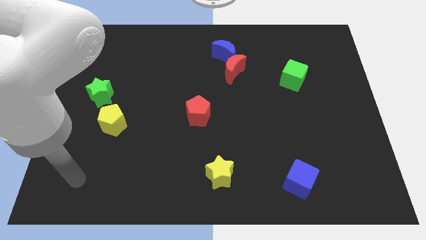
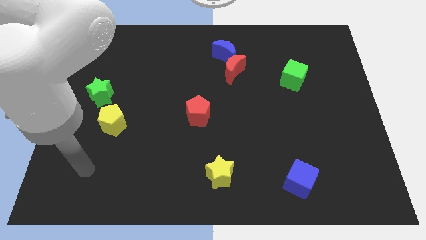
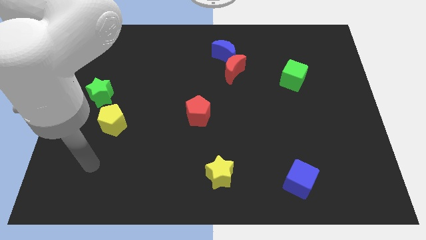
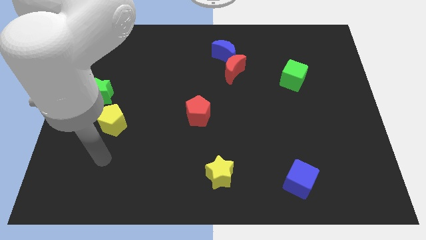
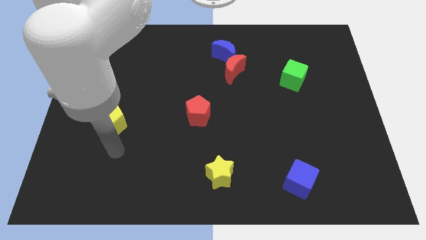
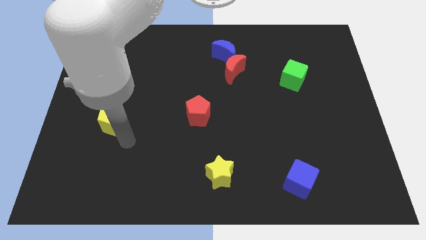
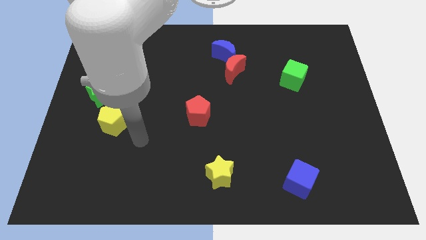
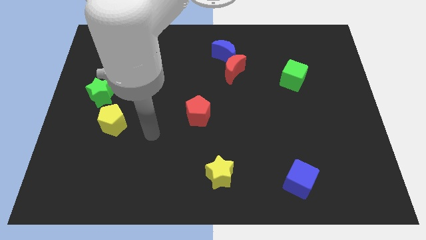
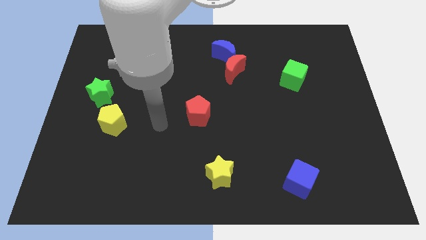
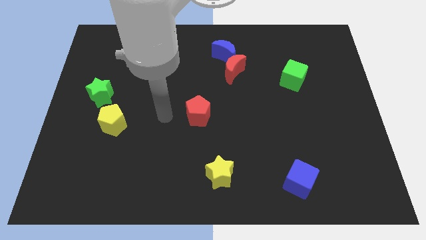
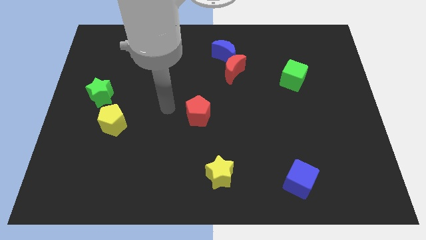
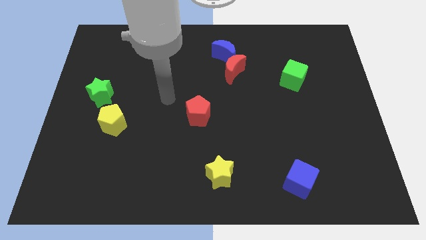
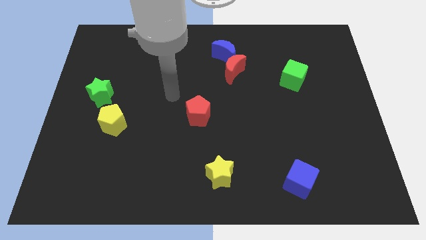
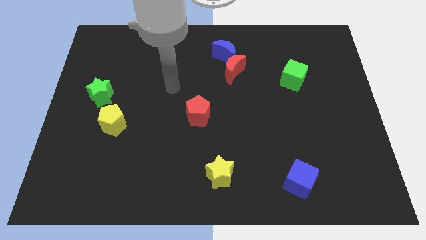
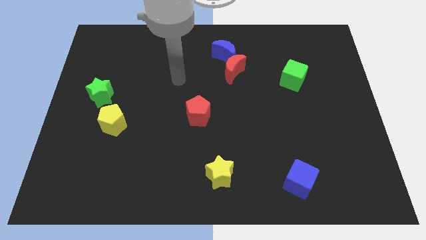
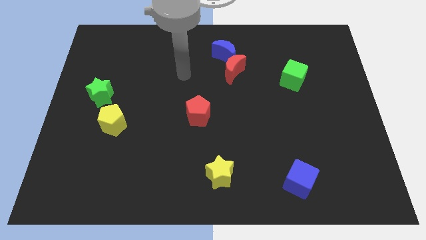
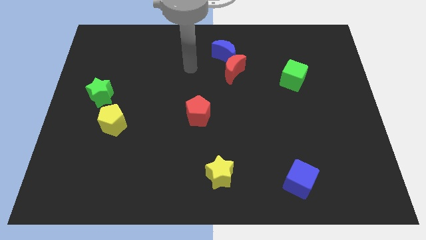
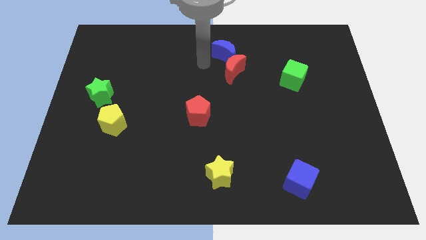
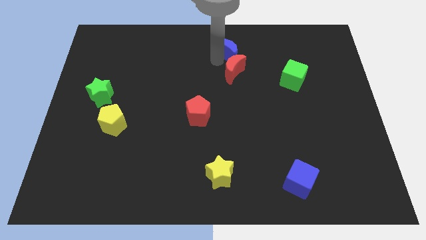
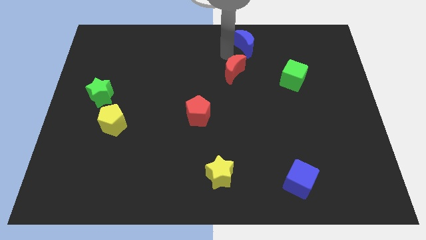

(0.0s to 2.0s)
move the red moon away from the blue moon

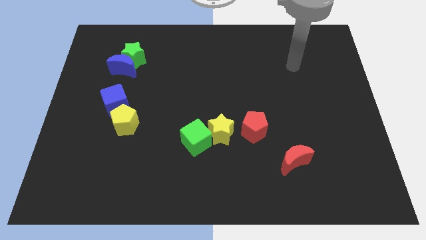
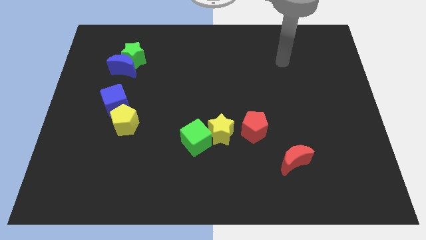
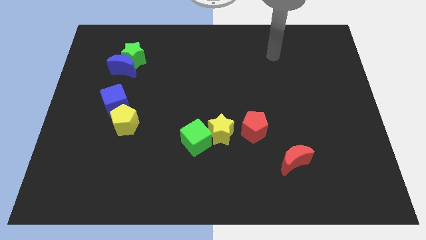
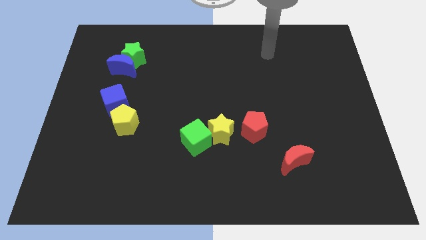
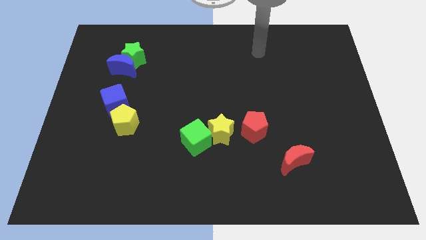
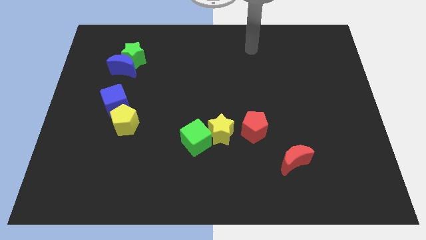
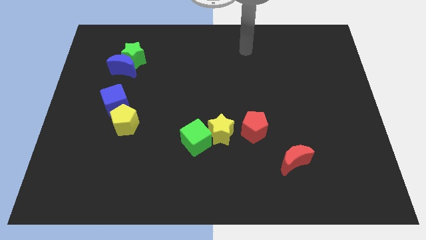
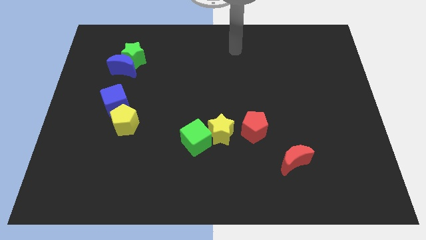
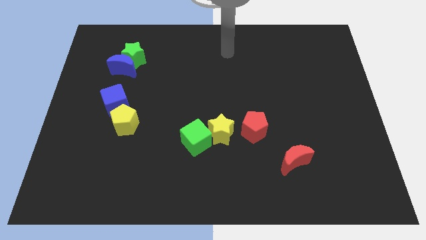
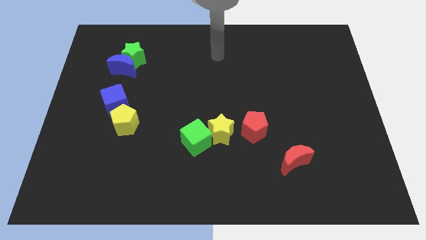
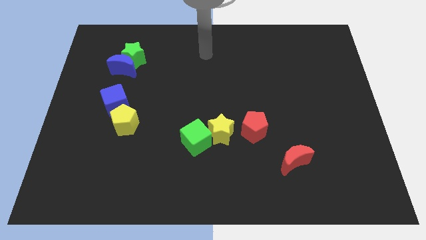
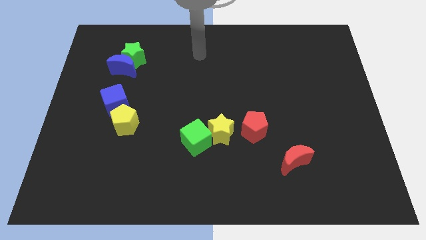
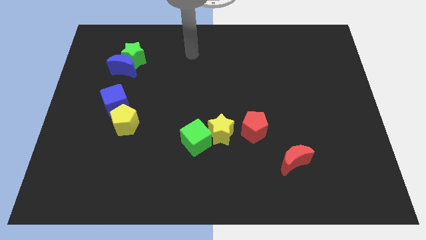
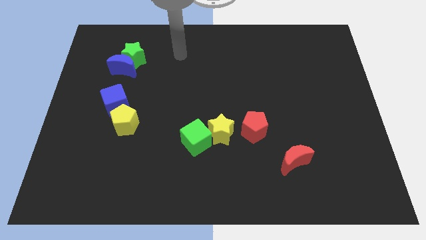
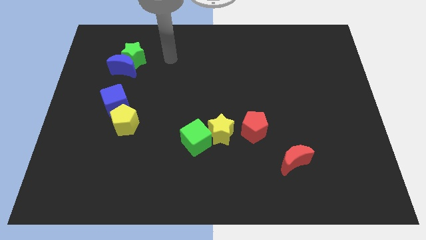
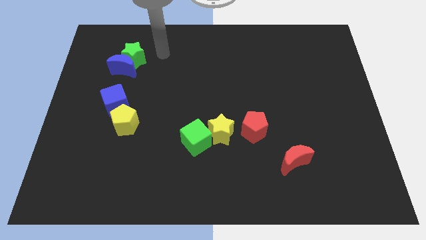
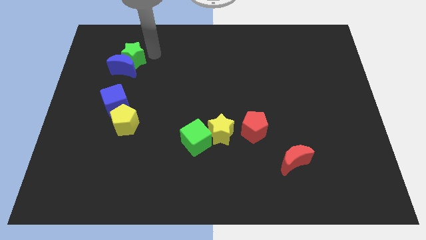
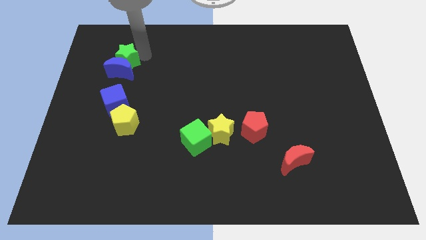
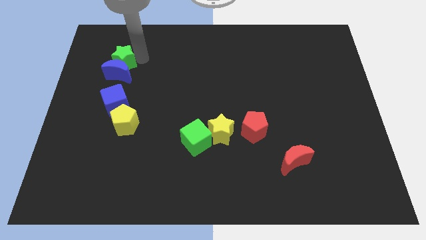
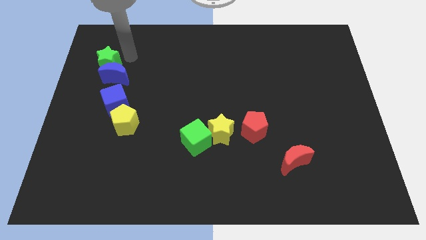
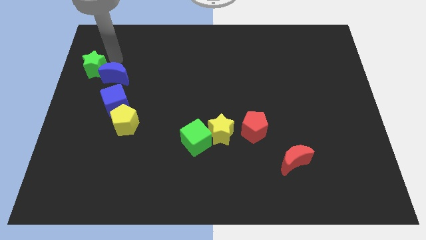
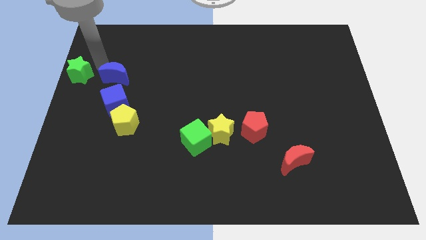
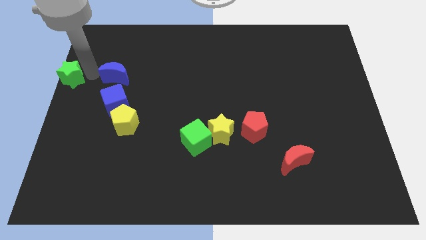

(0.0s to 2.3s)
pull the blue moon apart from the green star

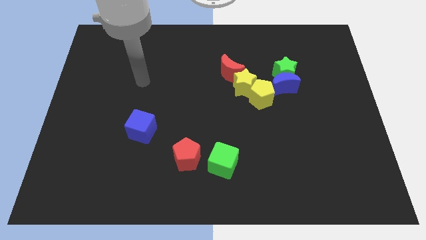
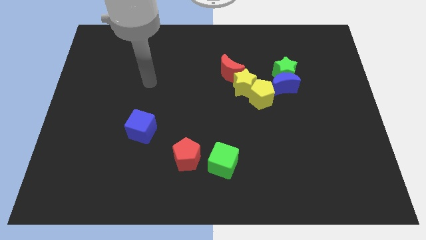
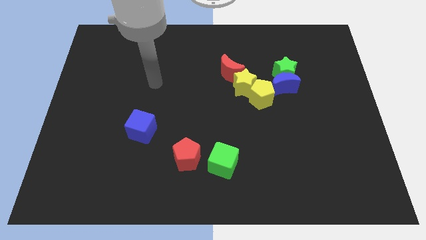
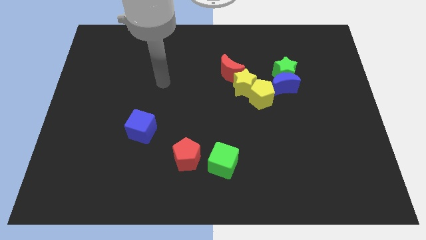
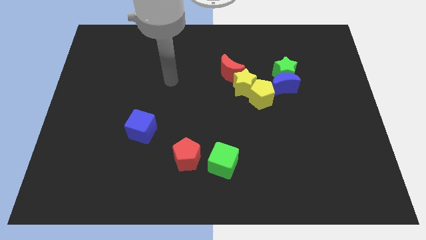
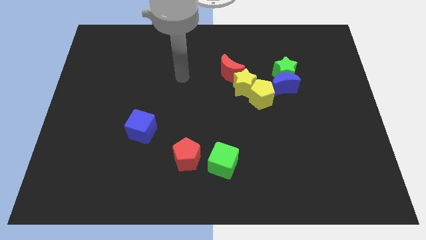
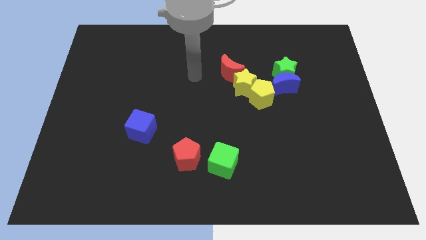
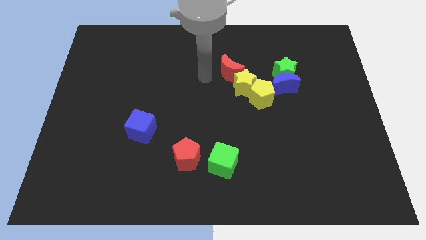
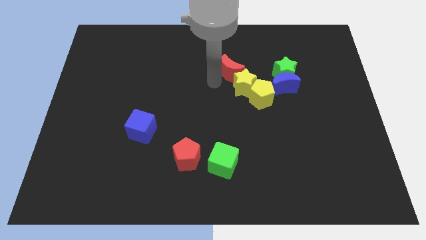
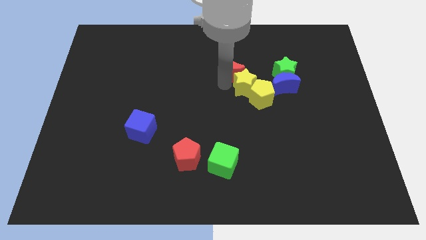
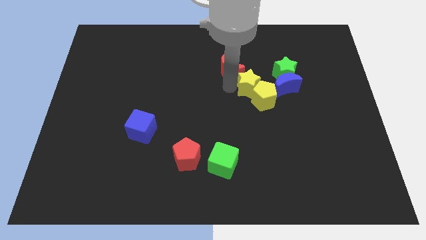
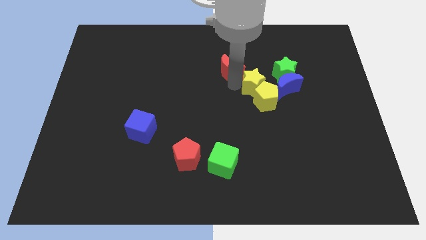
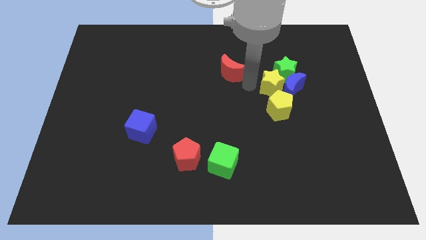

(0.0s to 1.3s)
separate the red moon from the yellow star

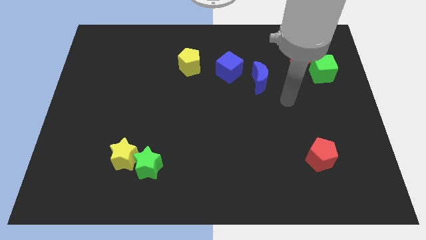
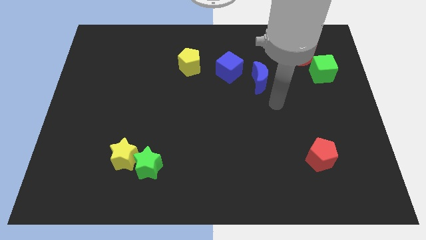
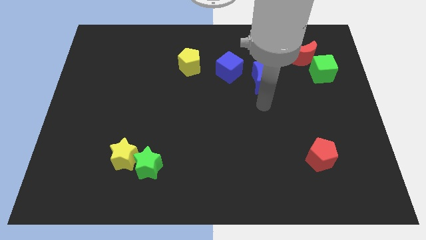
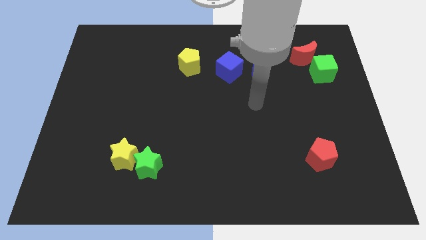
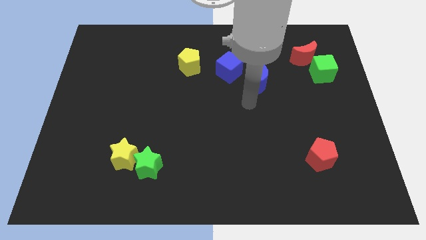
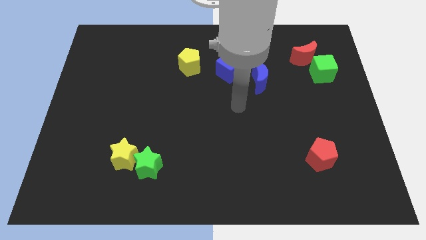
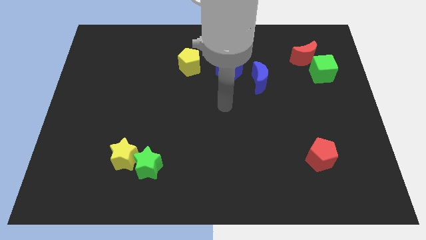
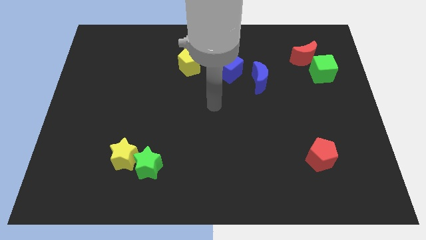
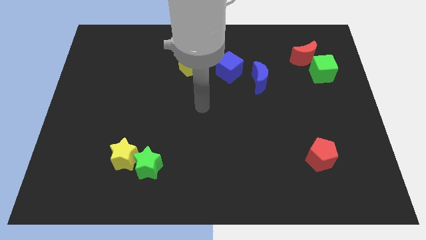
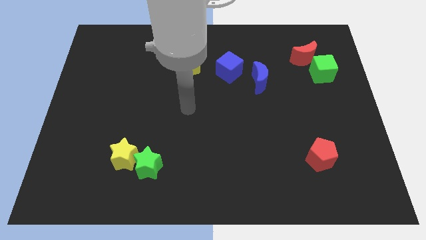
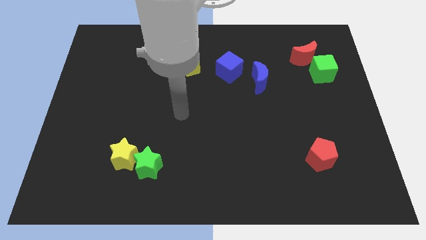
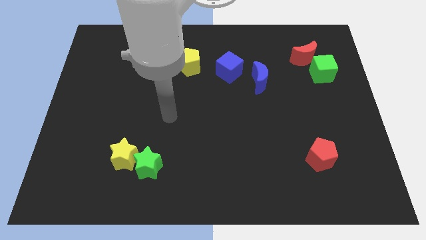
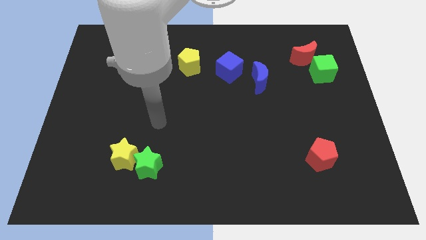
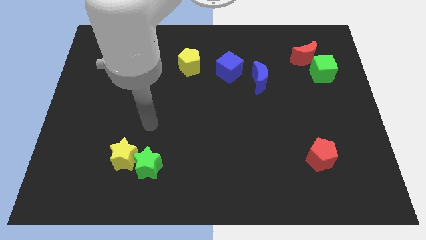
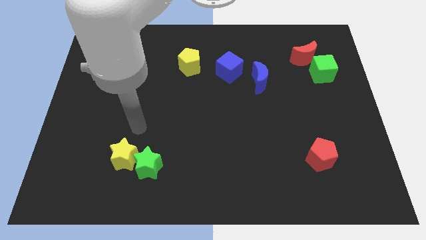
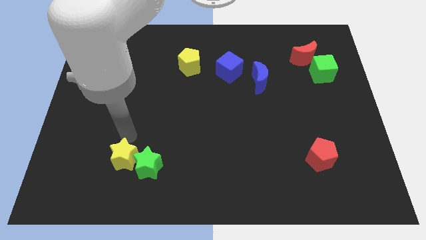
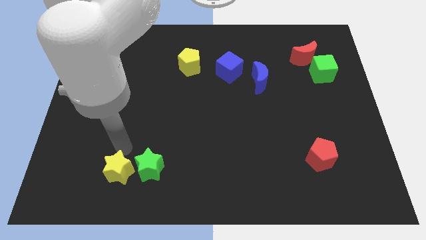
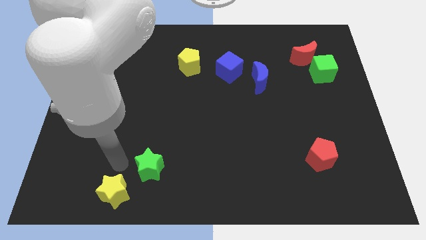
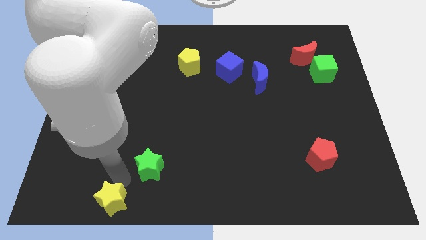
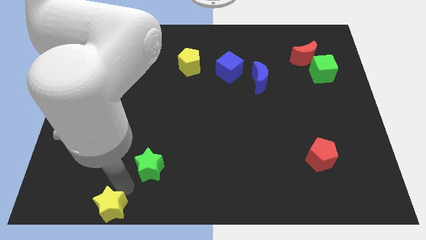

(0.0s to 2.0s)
pull the green star apart from the yellow star

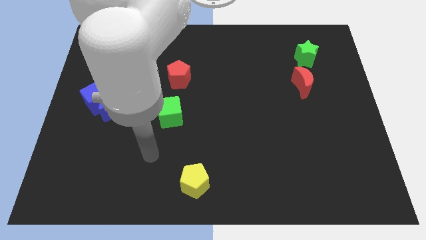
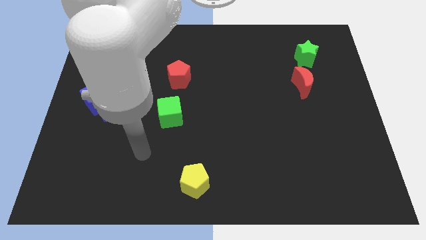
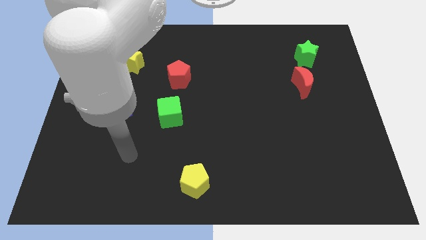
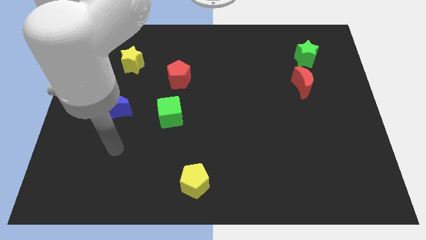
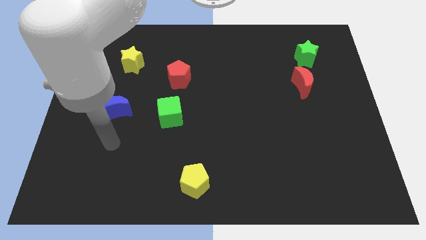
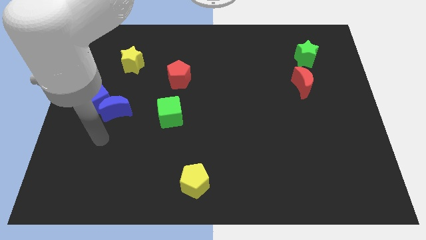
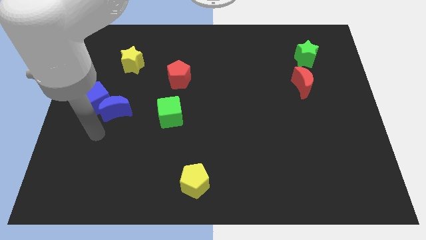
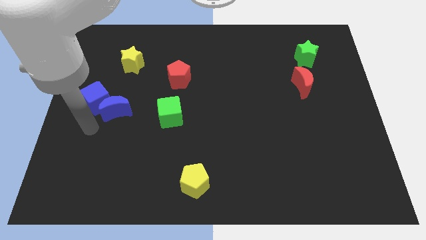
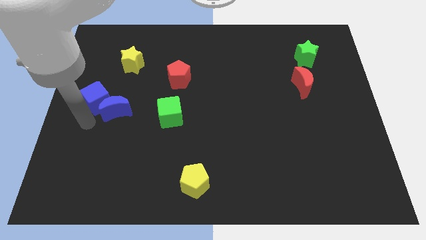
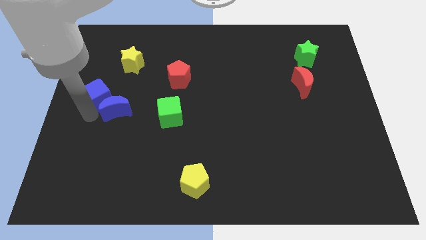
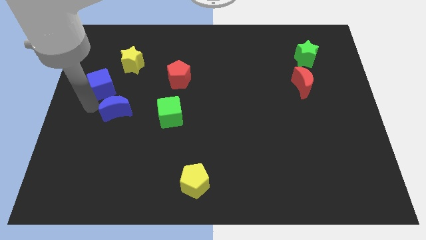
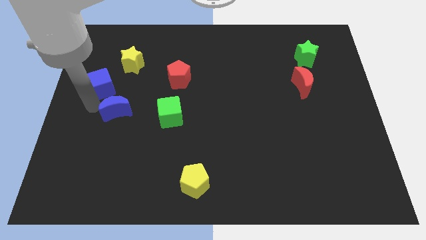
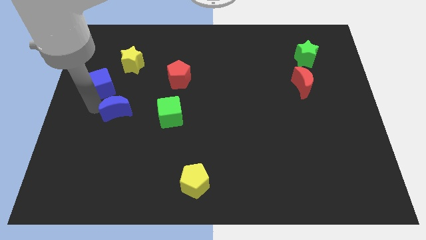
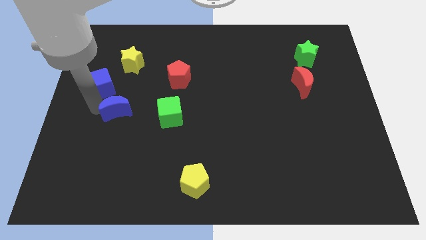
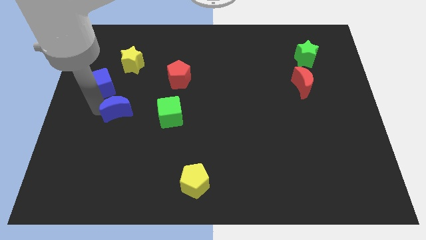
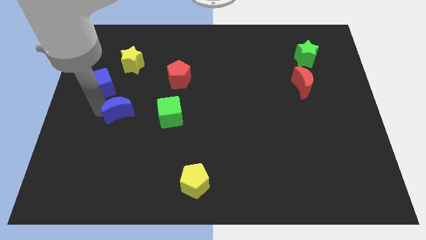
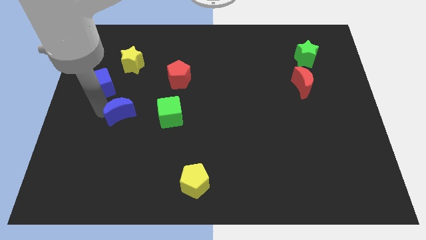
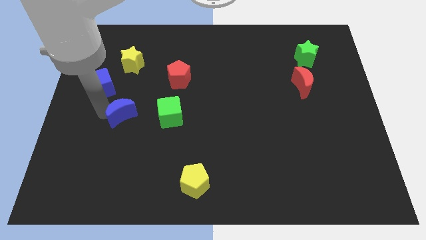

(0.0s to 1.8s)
pull the blue moon apart from the blue cube
